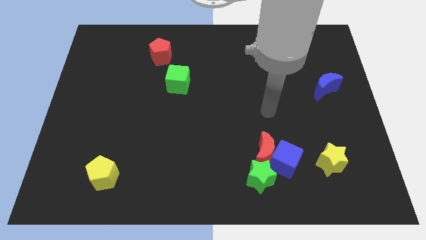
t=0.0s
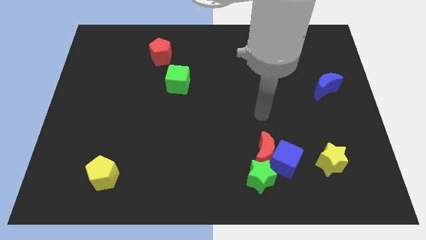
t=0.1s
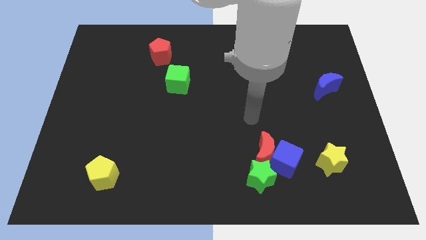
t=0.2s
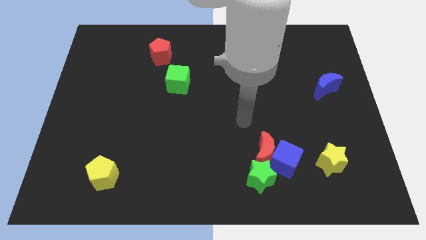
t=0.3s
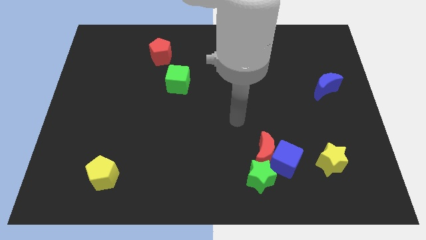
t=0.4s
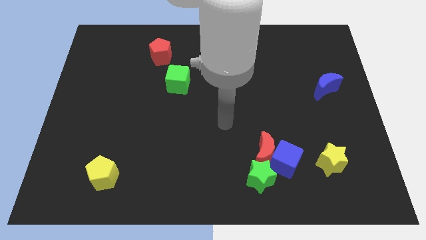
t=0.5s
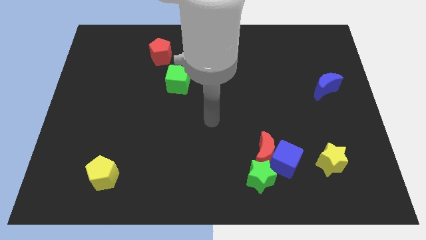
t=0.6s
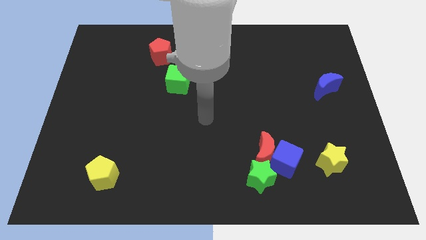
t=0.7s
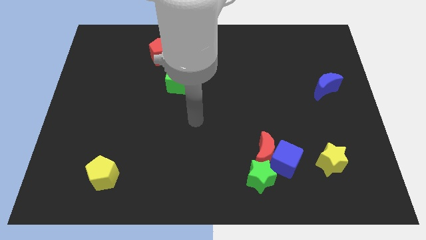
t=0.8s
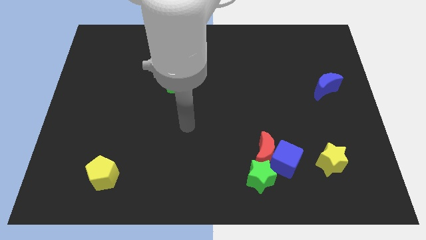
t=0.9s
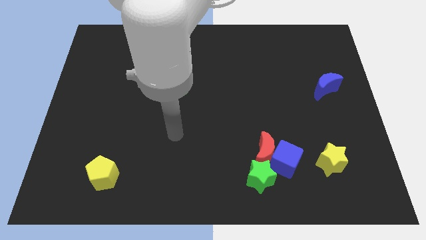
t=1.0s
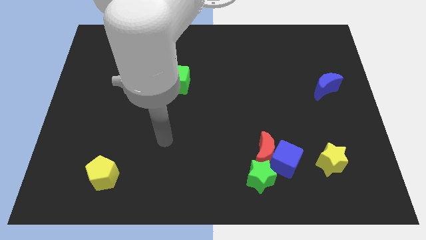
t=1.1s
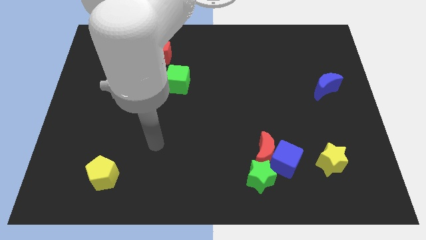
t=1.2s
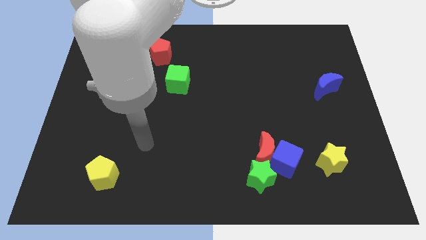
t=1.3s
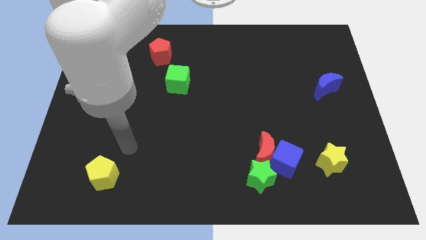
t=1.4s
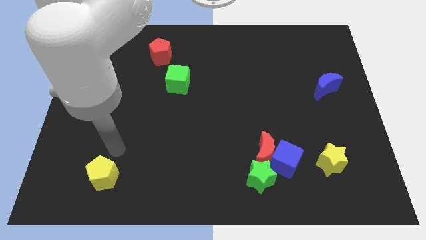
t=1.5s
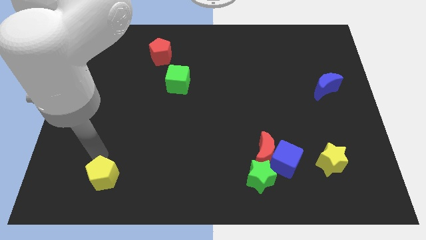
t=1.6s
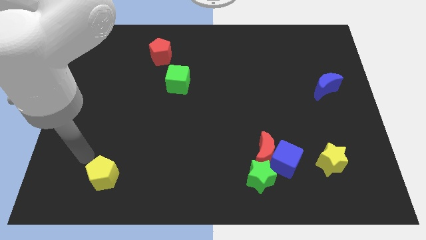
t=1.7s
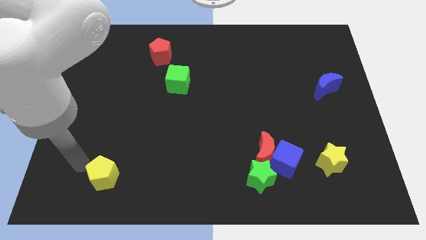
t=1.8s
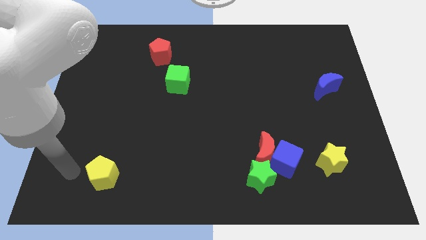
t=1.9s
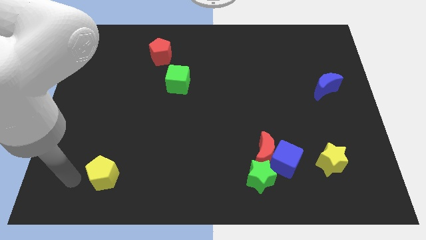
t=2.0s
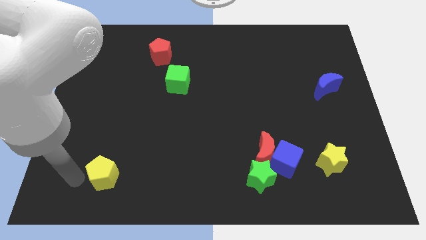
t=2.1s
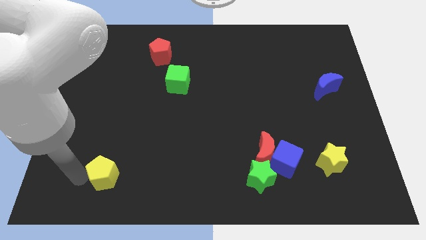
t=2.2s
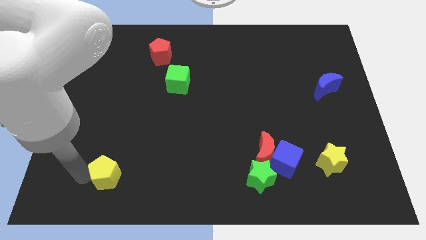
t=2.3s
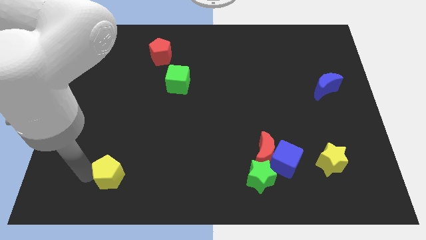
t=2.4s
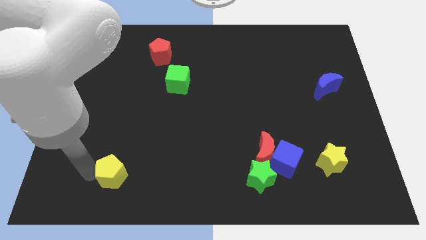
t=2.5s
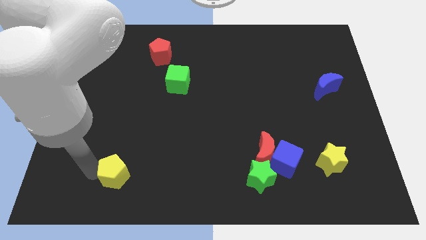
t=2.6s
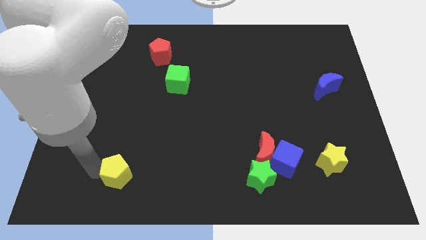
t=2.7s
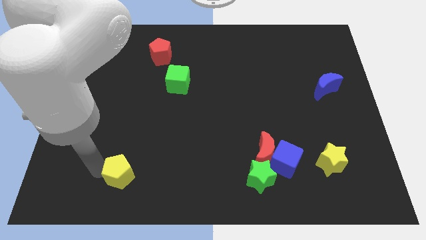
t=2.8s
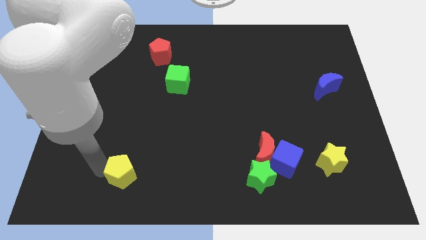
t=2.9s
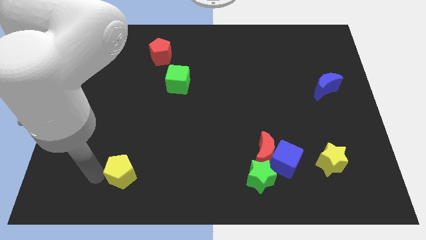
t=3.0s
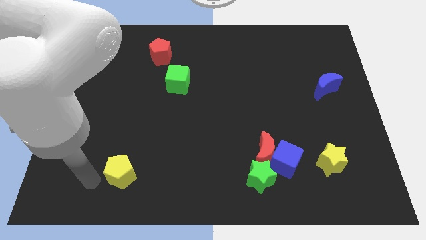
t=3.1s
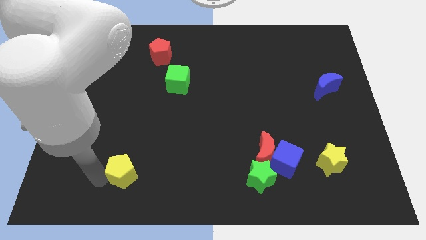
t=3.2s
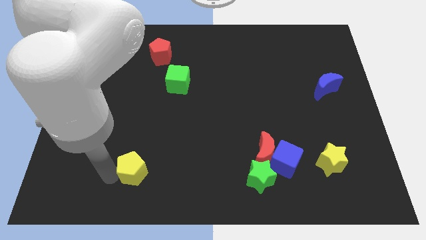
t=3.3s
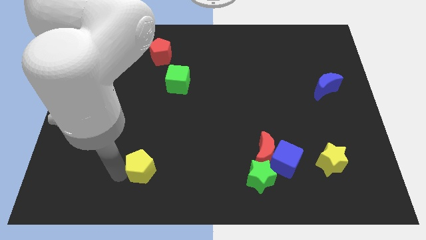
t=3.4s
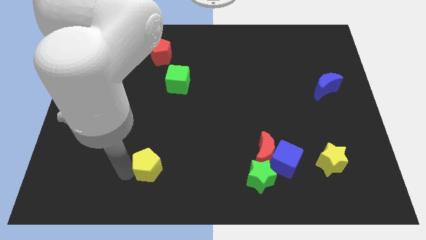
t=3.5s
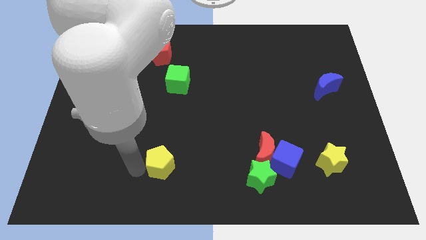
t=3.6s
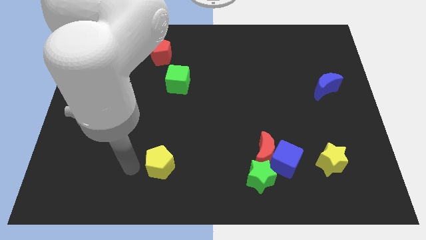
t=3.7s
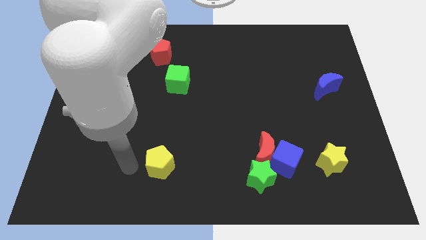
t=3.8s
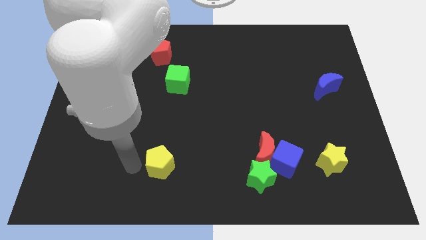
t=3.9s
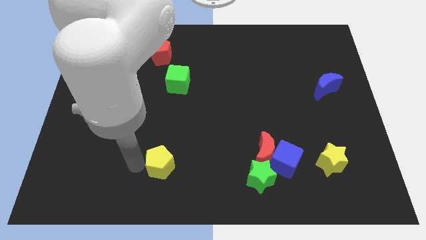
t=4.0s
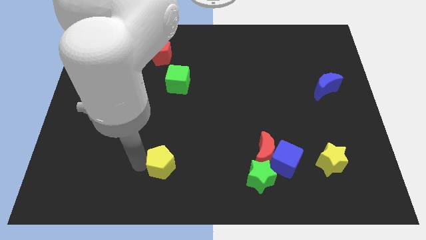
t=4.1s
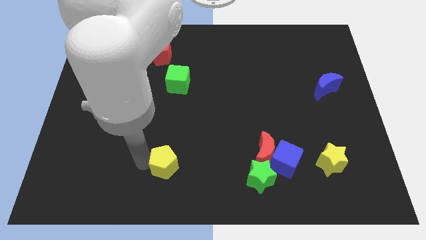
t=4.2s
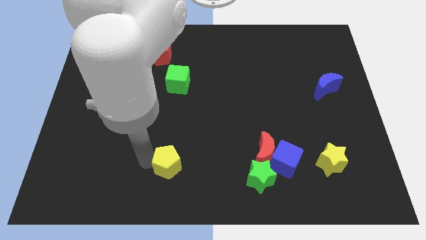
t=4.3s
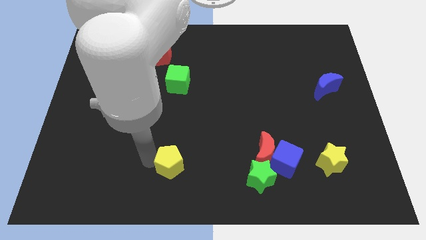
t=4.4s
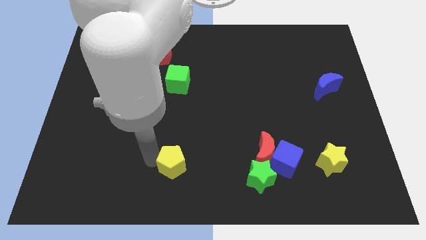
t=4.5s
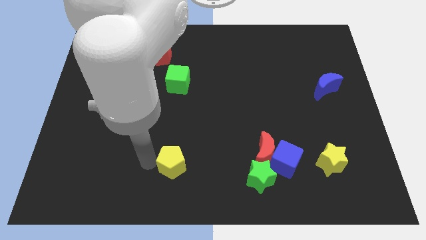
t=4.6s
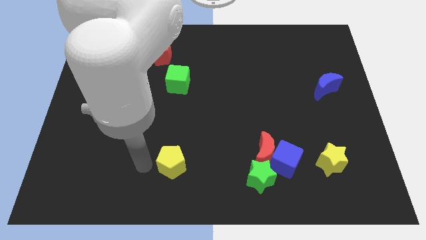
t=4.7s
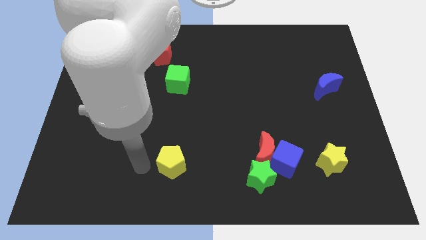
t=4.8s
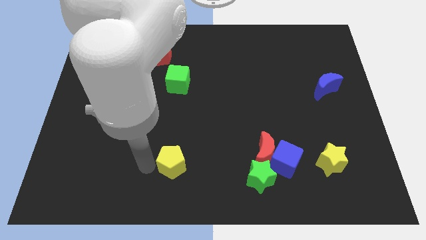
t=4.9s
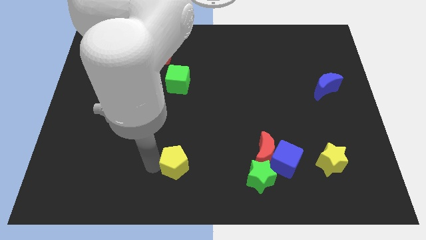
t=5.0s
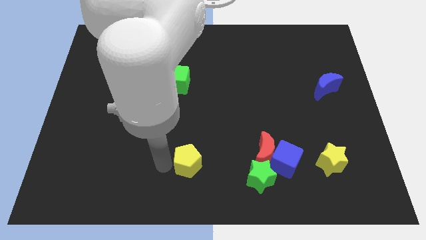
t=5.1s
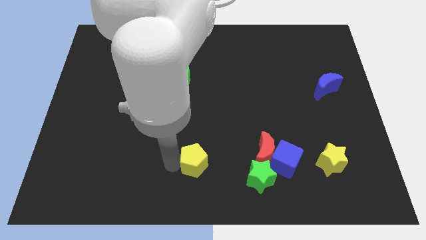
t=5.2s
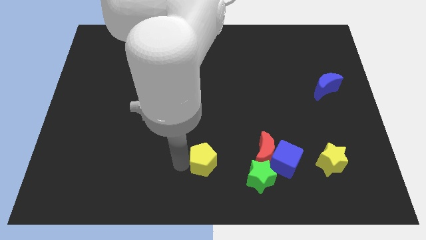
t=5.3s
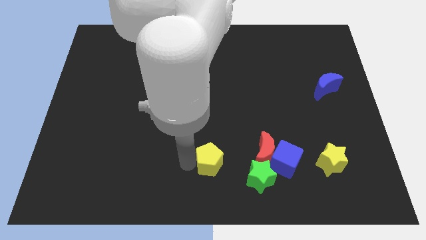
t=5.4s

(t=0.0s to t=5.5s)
slide the yellow pentagon left of the blue cube

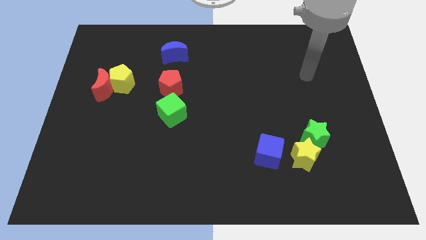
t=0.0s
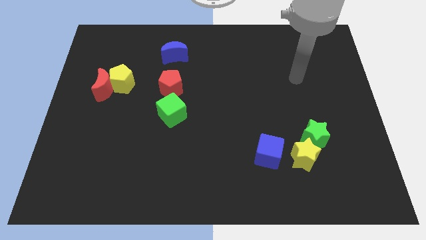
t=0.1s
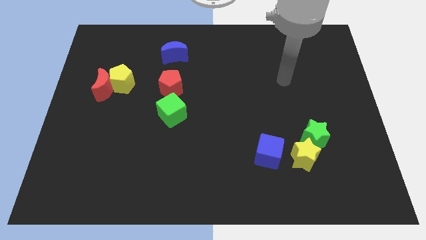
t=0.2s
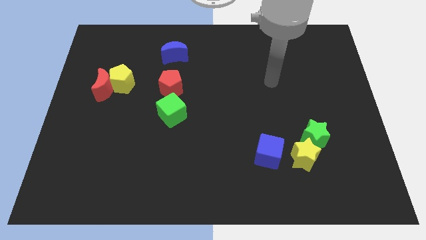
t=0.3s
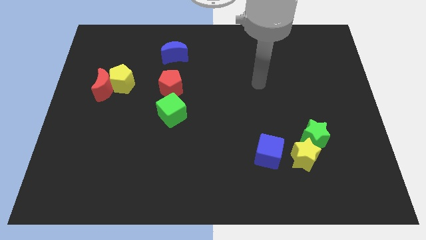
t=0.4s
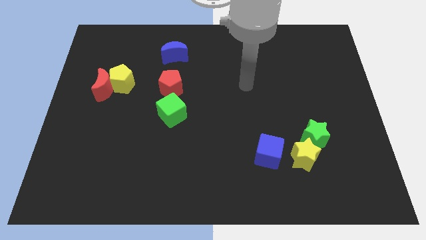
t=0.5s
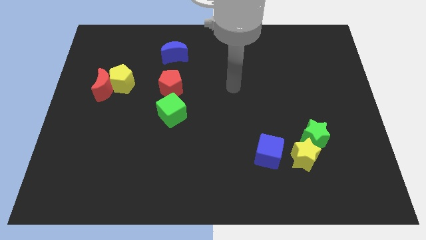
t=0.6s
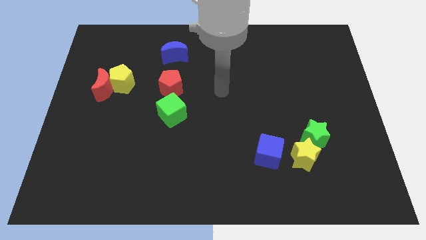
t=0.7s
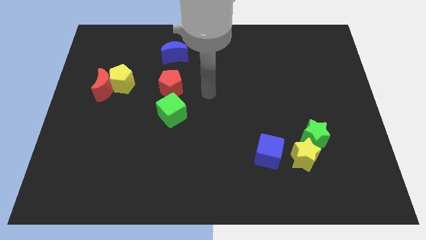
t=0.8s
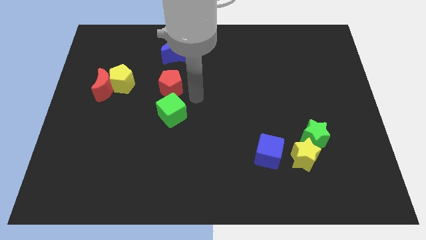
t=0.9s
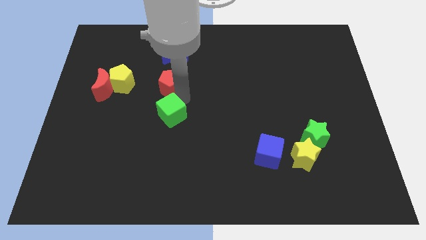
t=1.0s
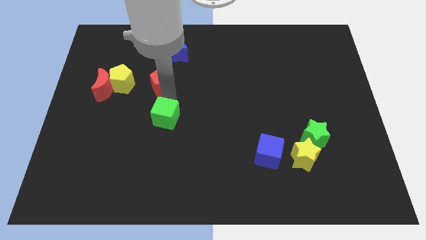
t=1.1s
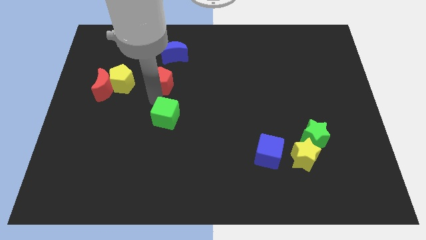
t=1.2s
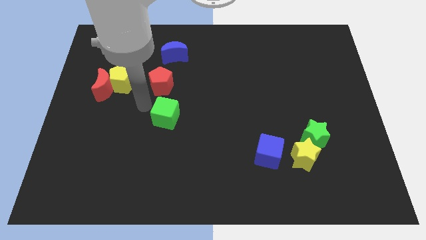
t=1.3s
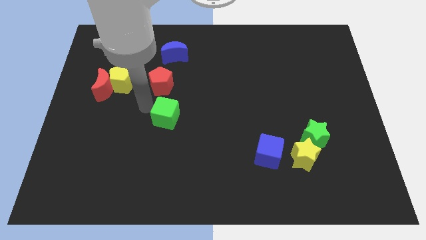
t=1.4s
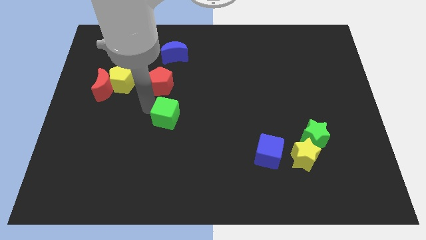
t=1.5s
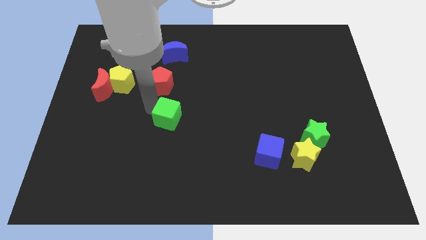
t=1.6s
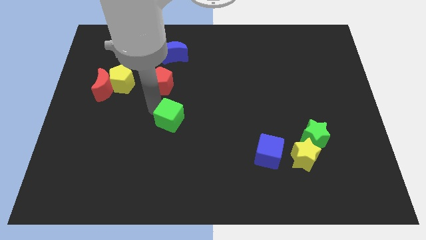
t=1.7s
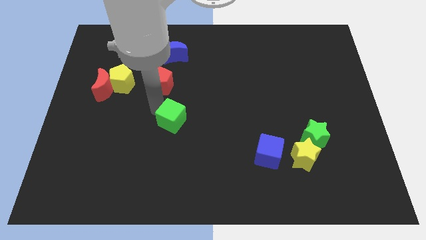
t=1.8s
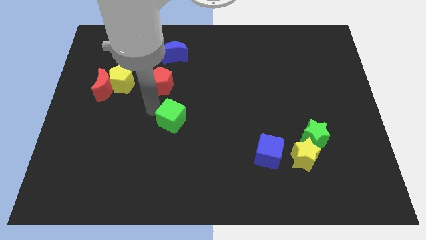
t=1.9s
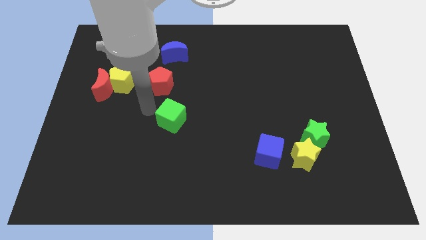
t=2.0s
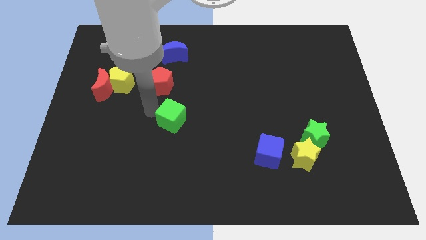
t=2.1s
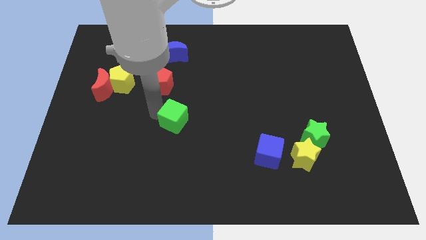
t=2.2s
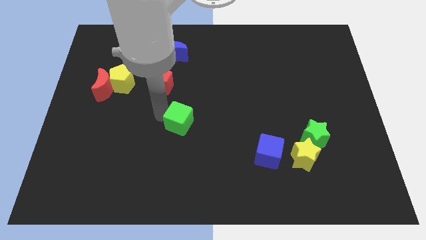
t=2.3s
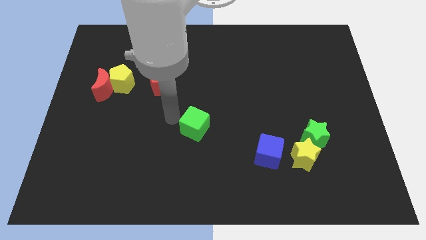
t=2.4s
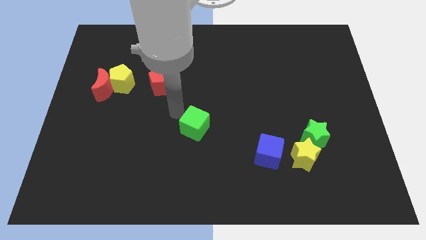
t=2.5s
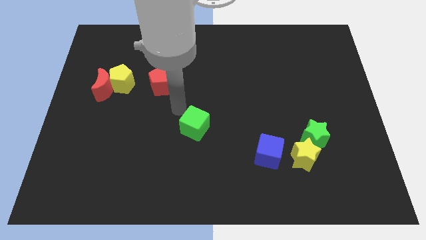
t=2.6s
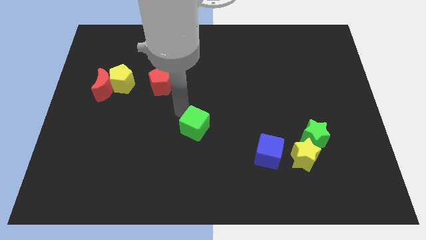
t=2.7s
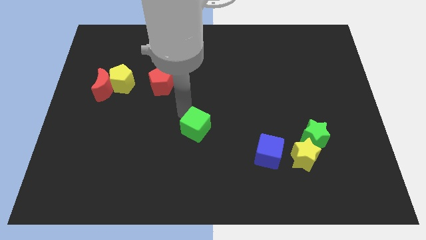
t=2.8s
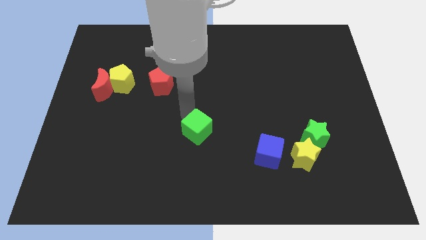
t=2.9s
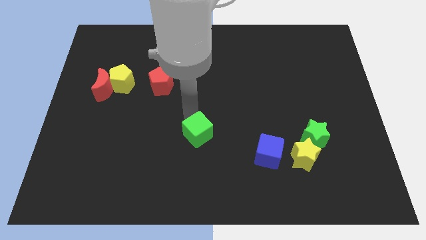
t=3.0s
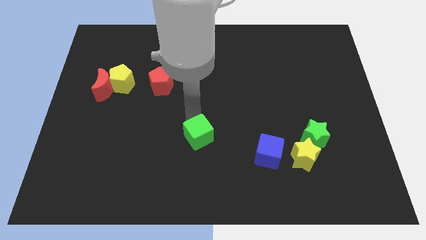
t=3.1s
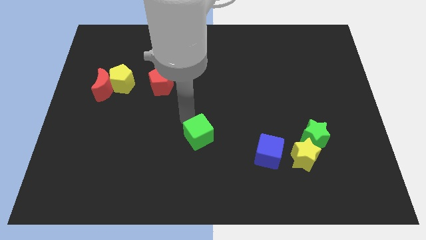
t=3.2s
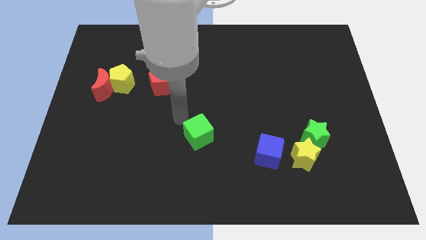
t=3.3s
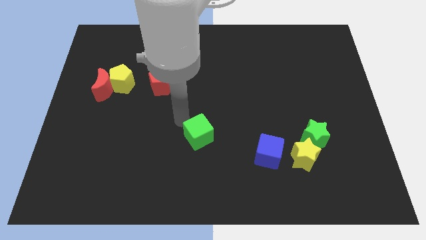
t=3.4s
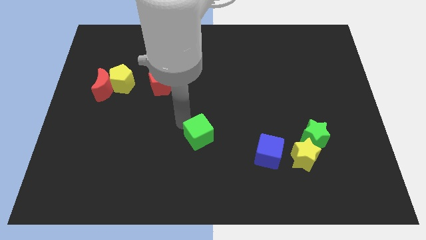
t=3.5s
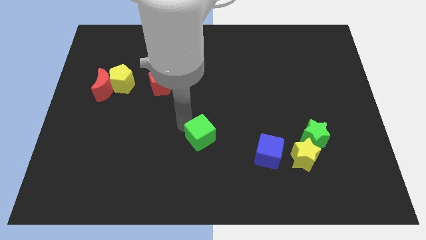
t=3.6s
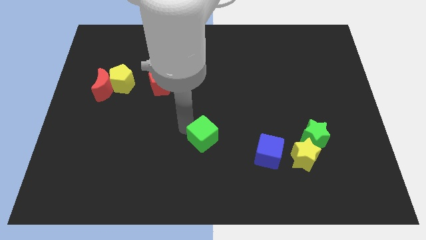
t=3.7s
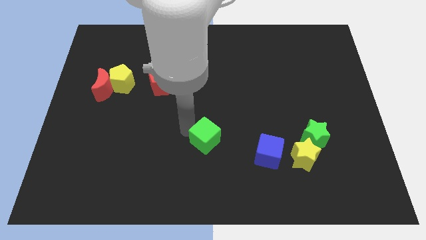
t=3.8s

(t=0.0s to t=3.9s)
put the green cube to the left side of the blue cube
